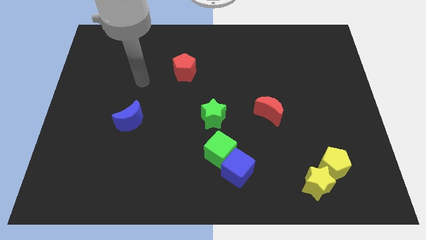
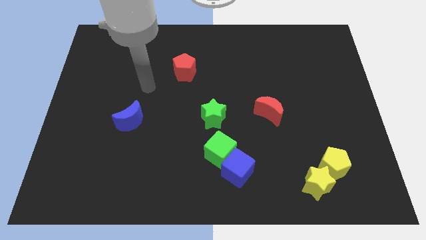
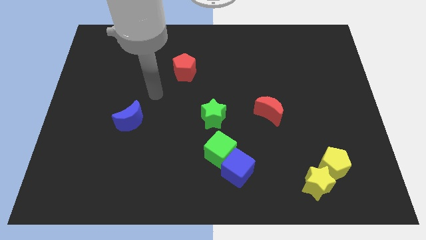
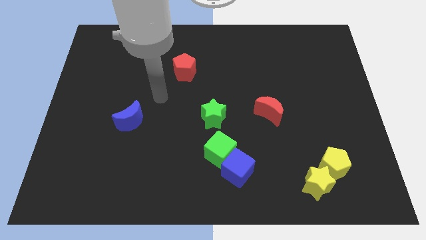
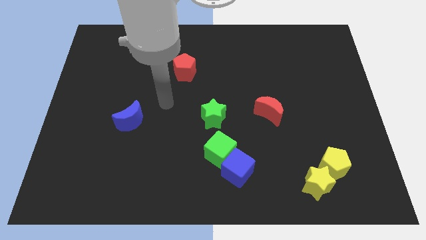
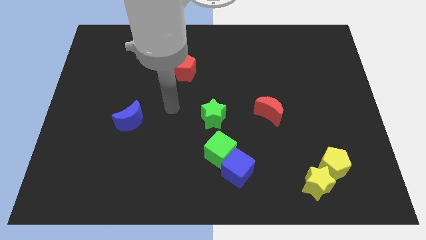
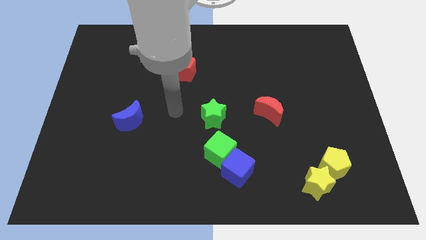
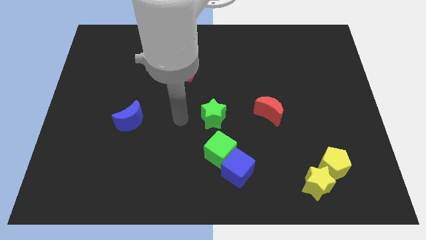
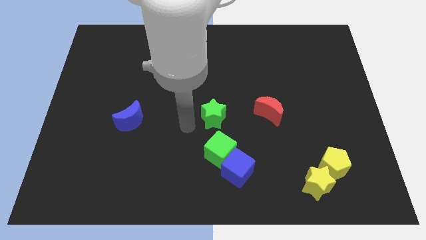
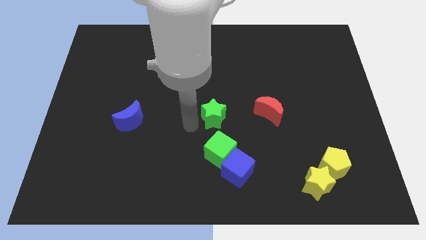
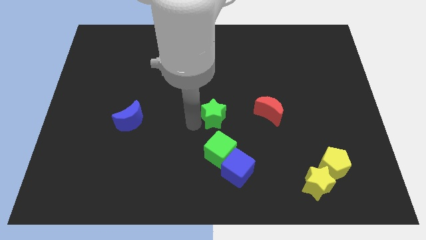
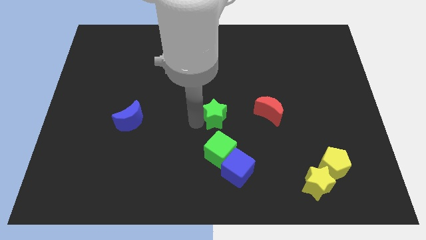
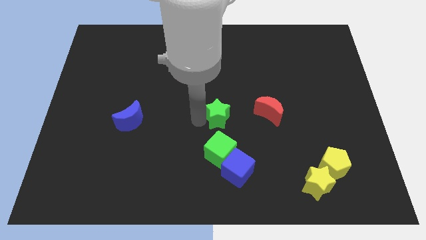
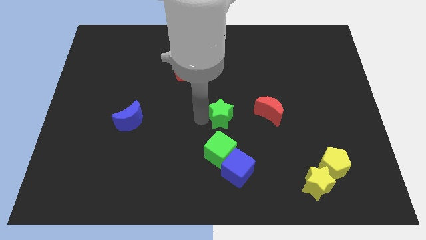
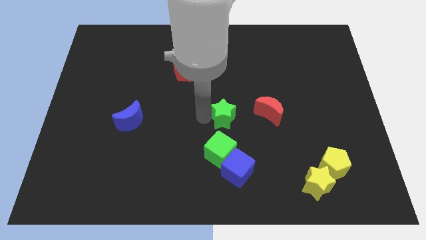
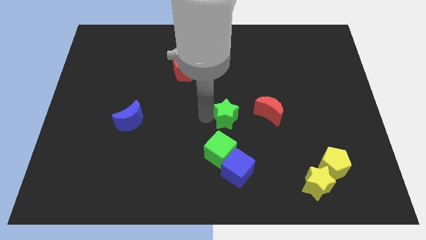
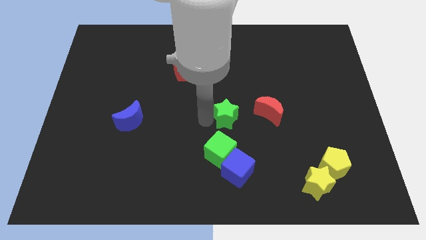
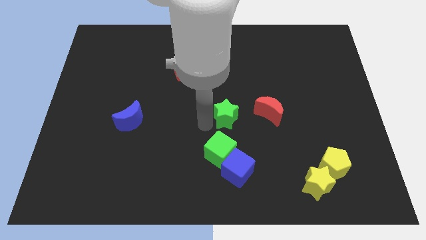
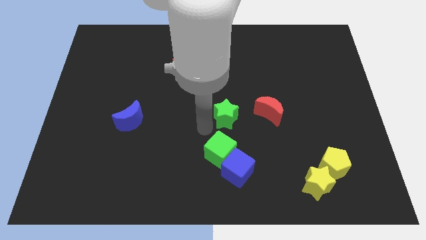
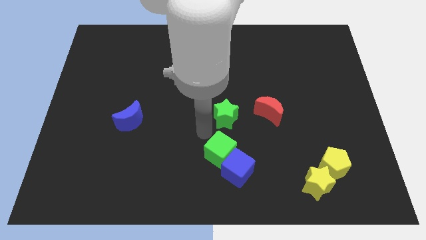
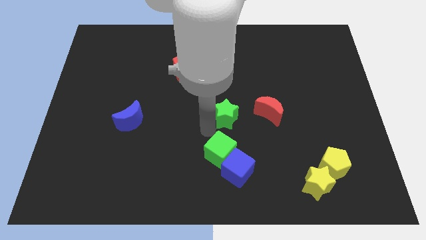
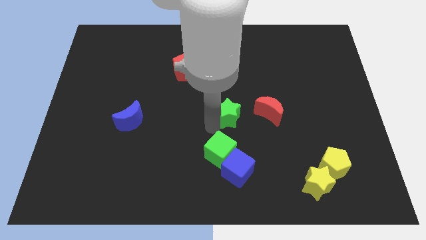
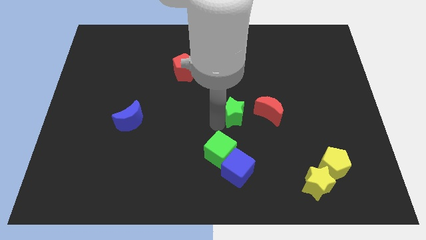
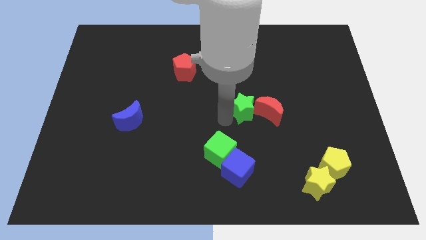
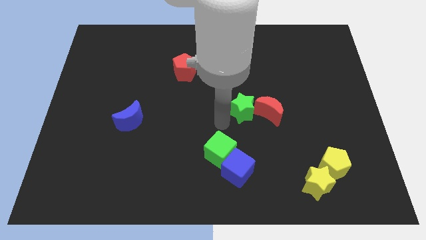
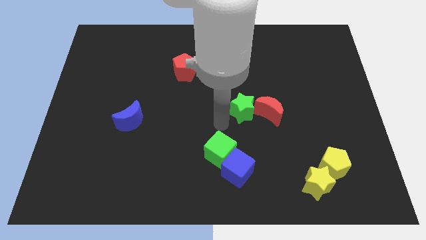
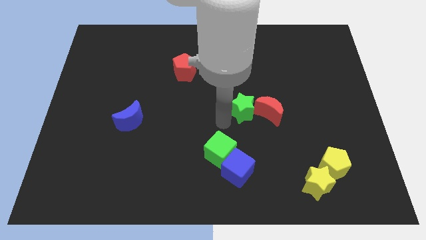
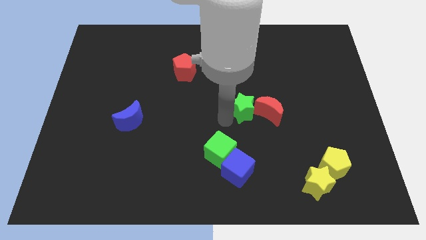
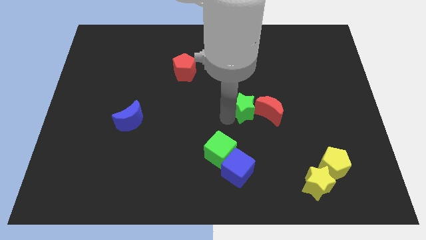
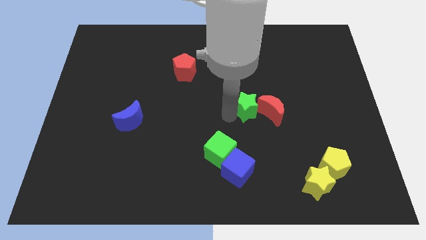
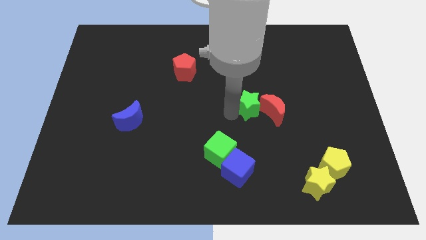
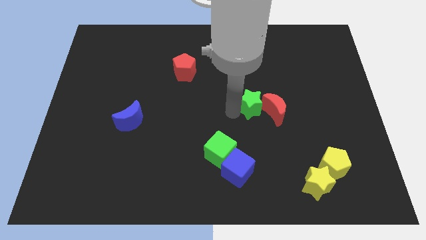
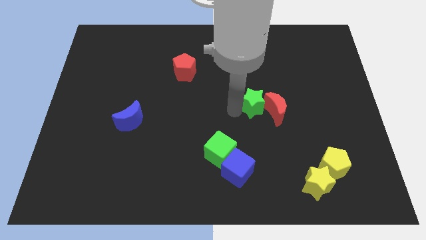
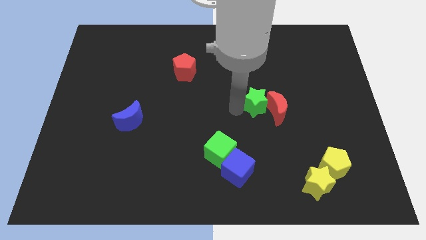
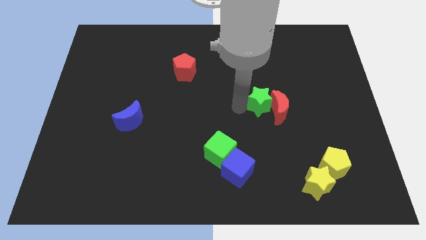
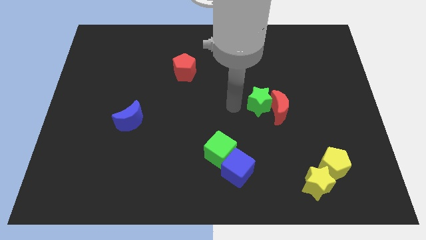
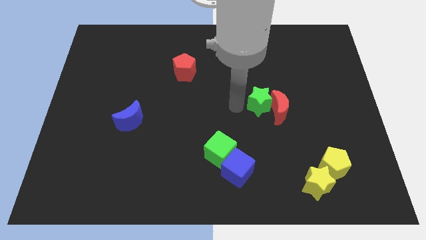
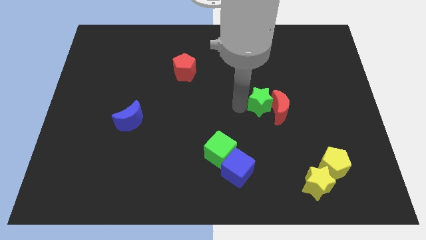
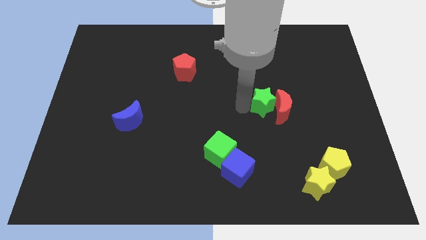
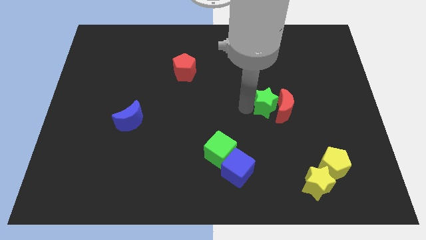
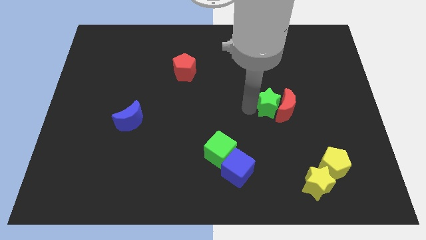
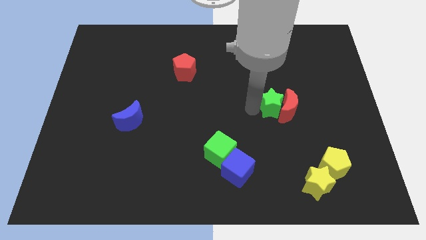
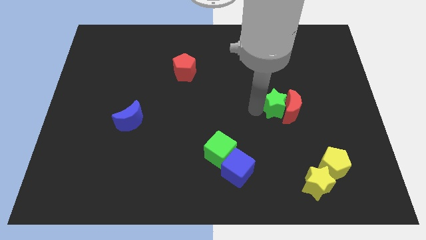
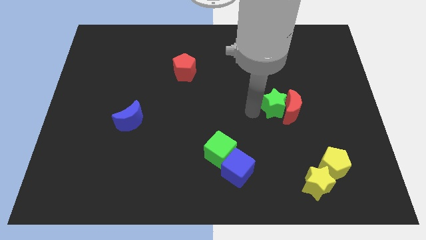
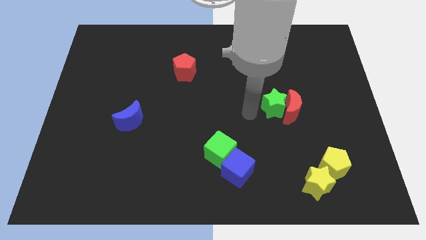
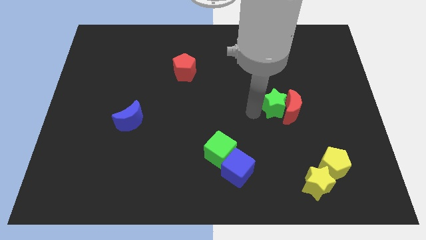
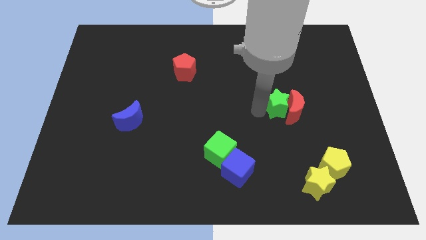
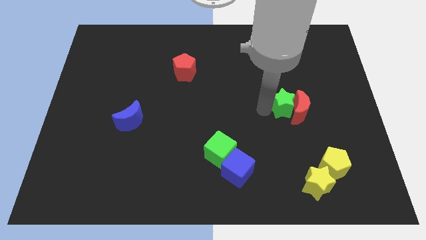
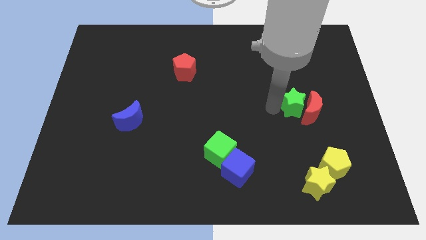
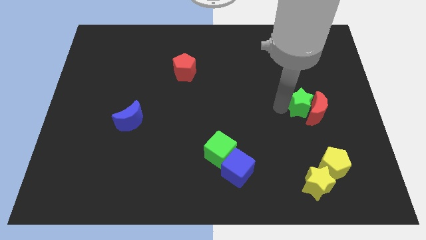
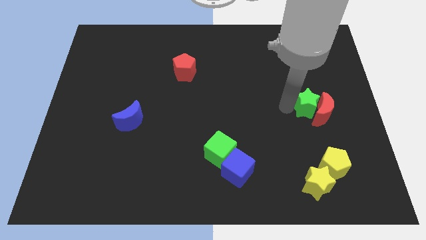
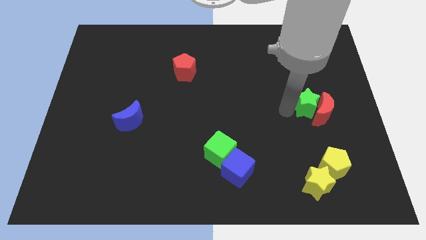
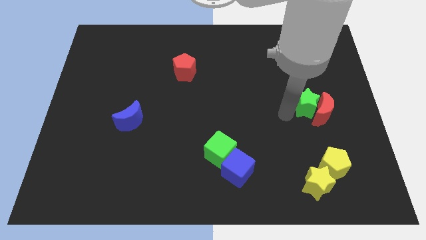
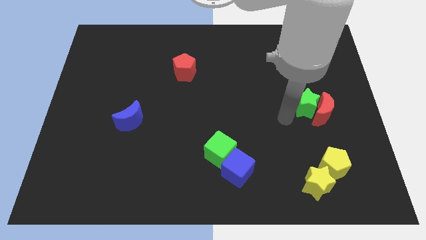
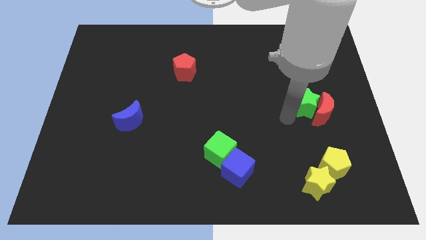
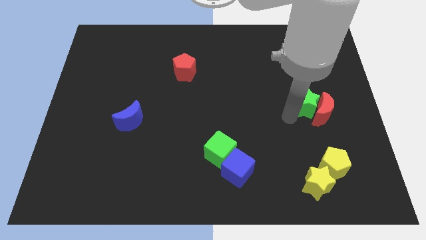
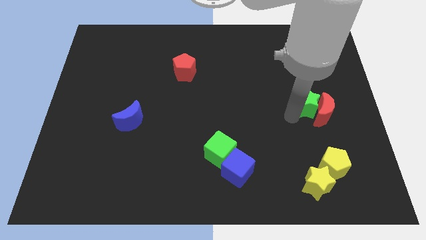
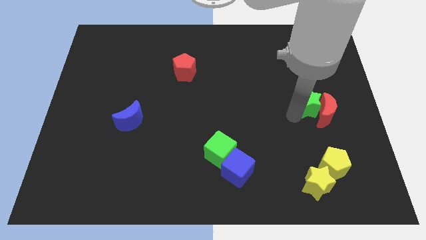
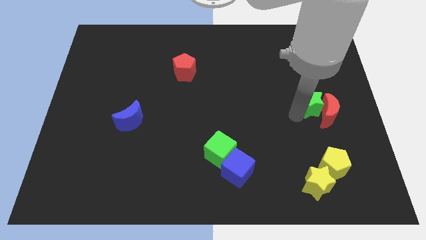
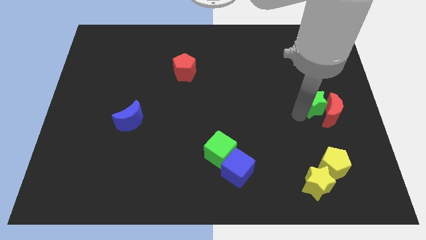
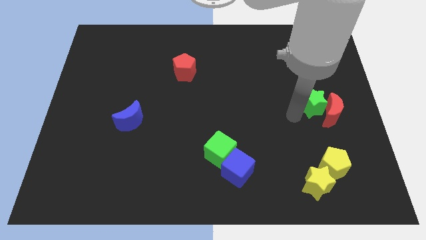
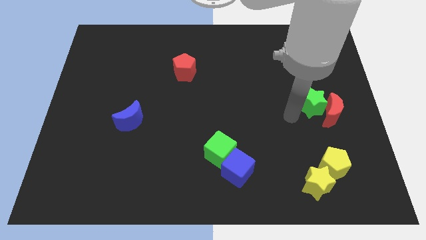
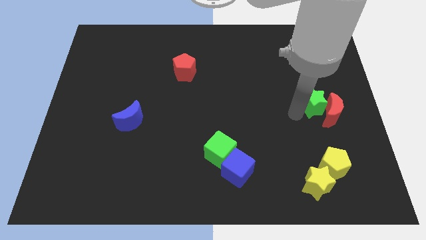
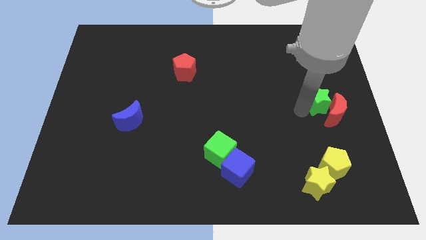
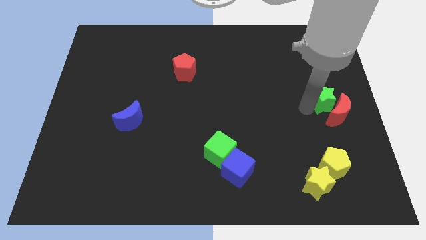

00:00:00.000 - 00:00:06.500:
move the green star to the center right
